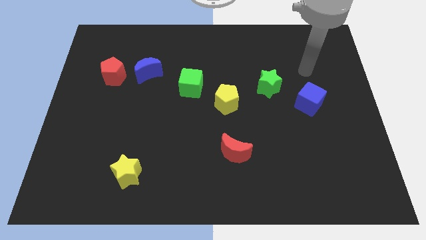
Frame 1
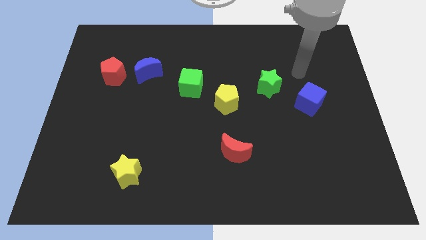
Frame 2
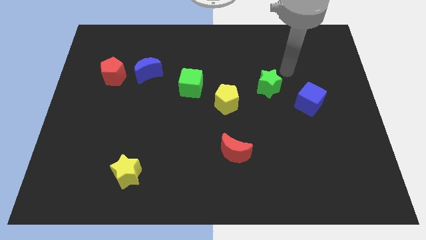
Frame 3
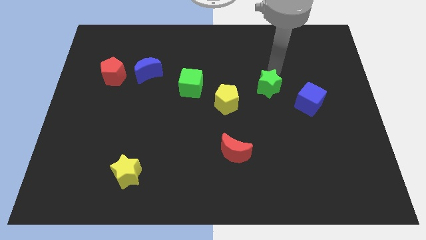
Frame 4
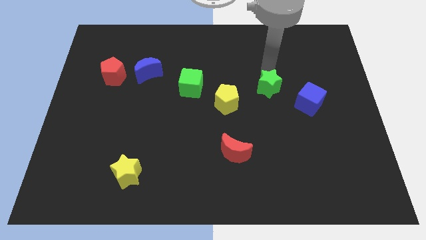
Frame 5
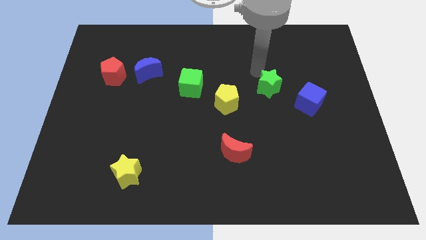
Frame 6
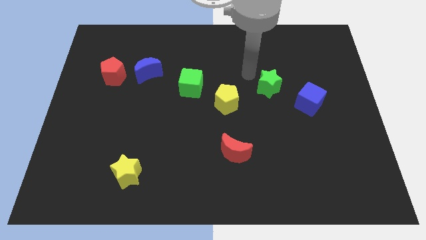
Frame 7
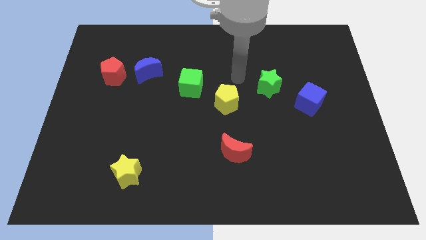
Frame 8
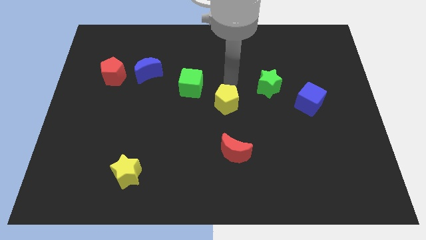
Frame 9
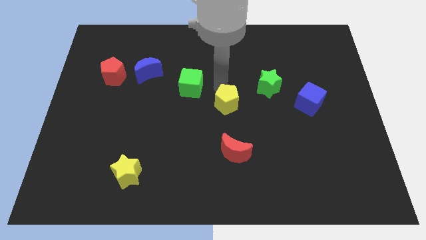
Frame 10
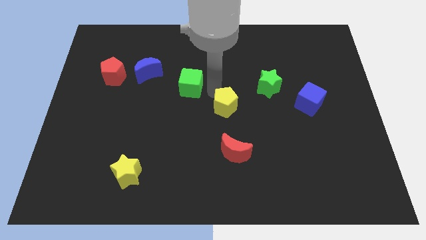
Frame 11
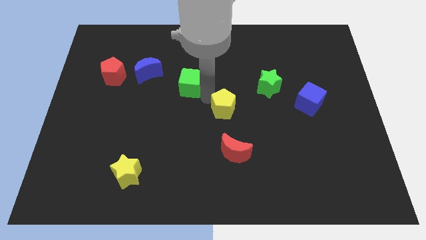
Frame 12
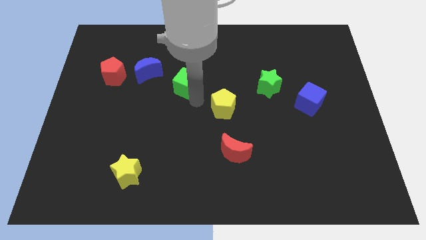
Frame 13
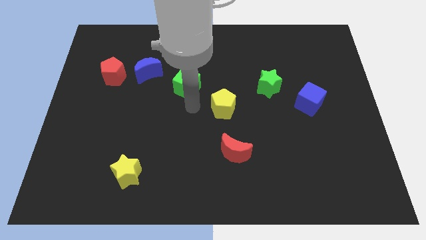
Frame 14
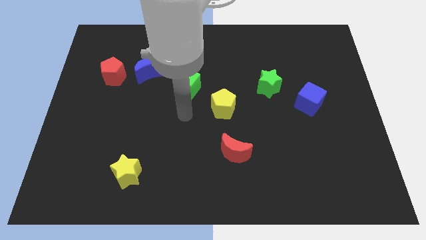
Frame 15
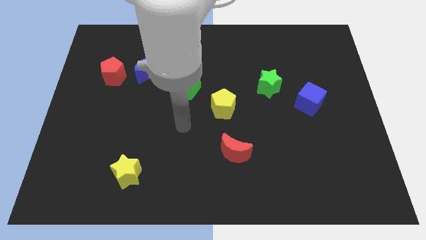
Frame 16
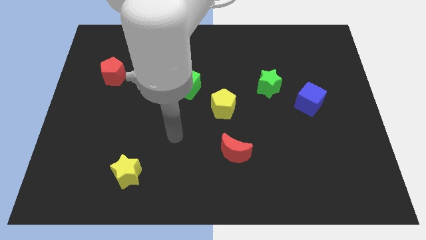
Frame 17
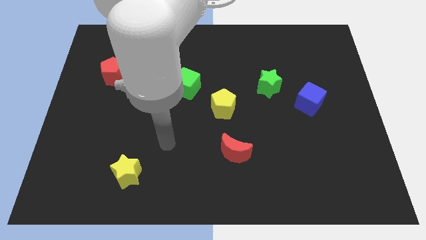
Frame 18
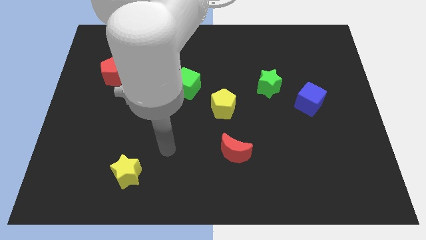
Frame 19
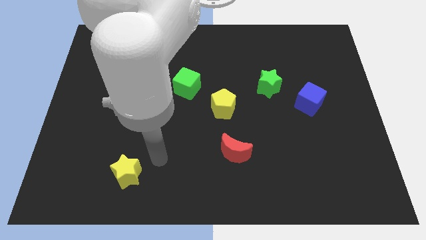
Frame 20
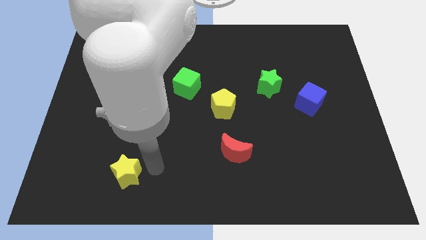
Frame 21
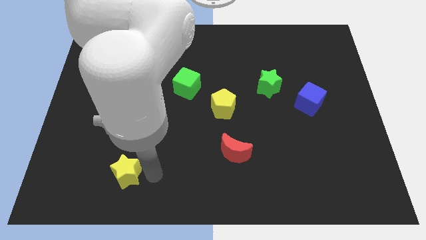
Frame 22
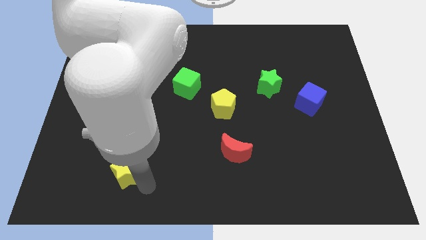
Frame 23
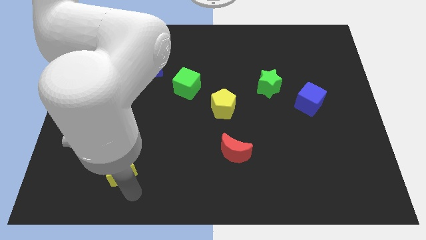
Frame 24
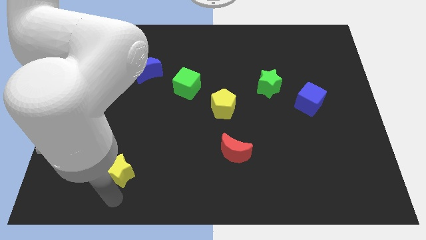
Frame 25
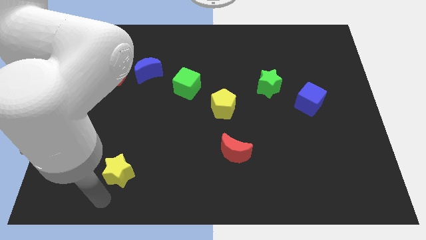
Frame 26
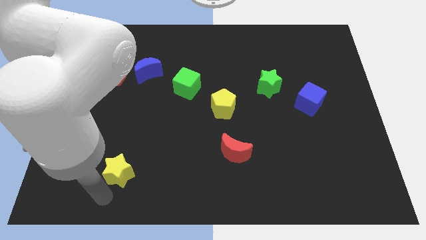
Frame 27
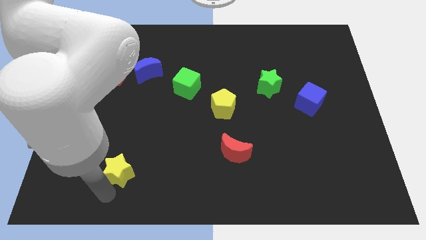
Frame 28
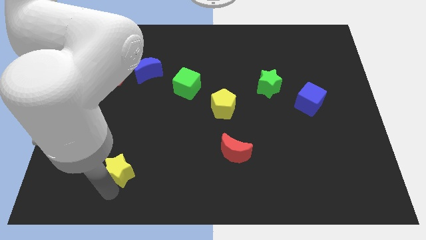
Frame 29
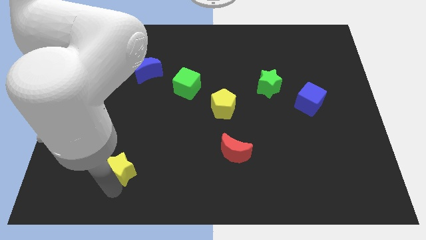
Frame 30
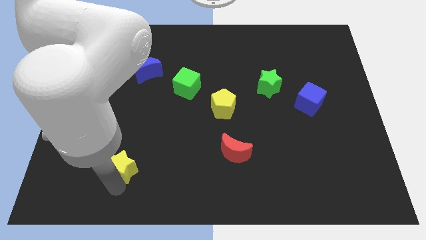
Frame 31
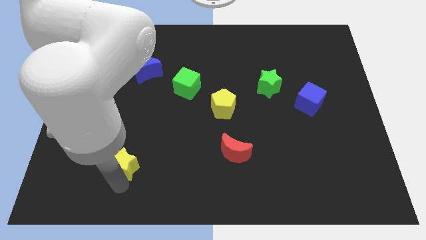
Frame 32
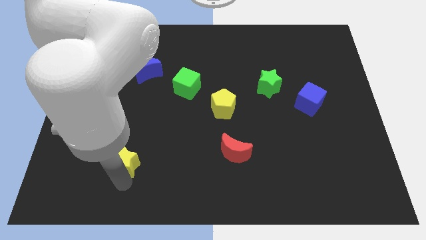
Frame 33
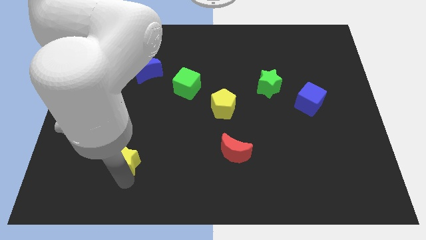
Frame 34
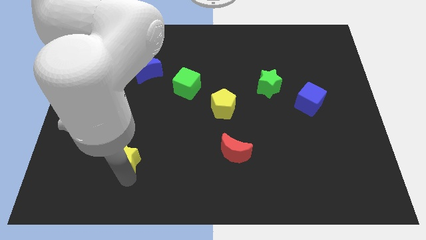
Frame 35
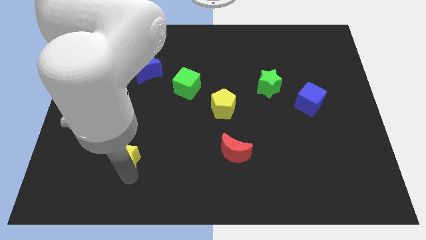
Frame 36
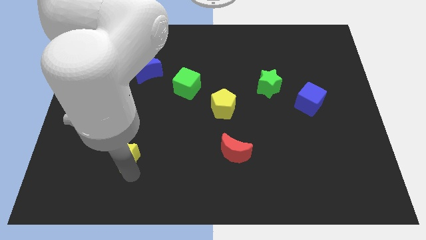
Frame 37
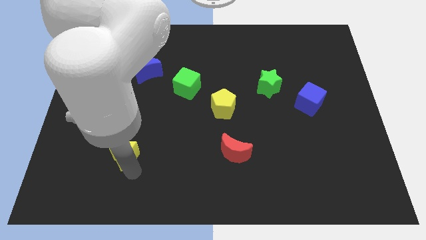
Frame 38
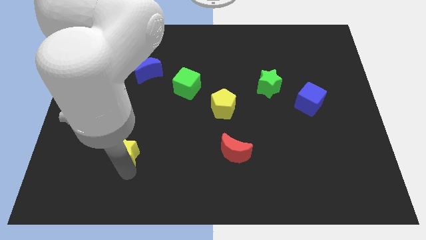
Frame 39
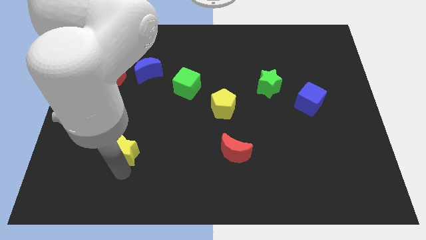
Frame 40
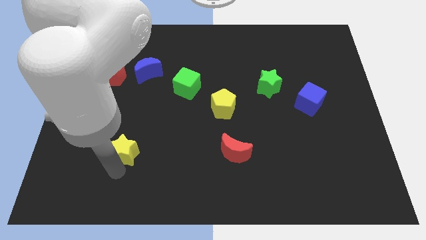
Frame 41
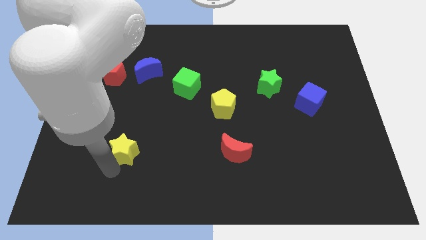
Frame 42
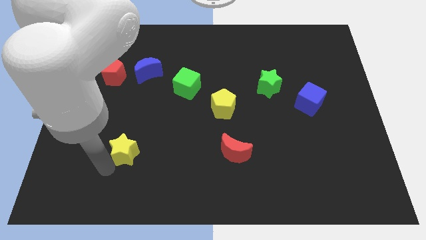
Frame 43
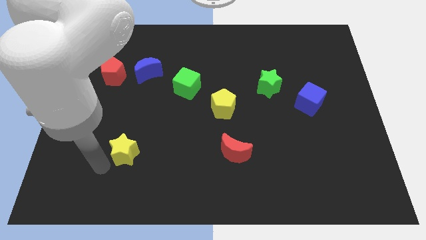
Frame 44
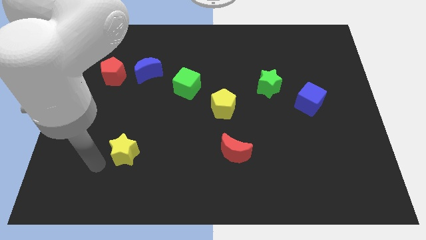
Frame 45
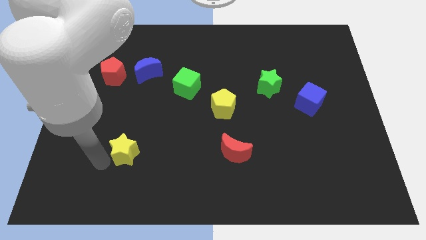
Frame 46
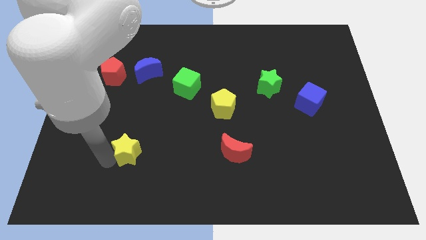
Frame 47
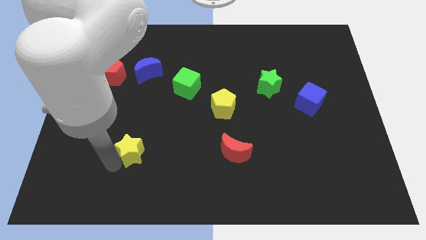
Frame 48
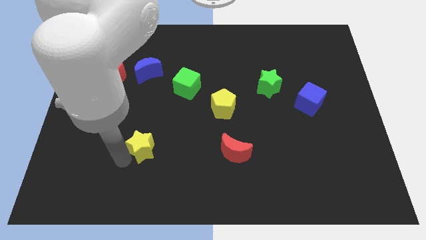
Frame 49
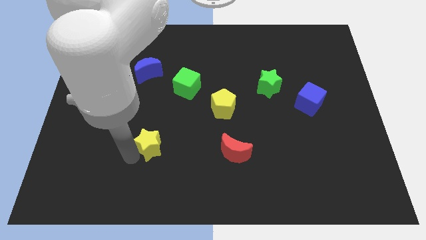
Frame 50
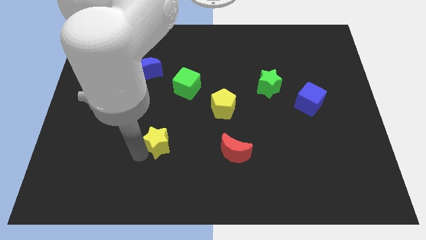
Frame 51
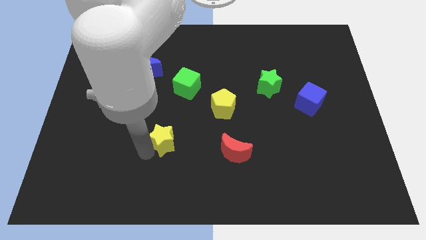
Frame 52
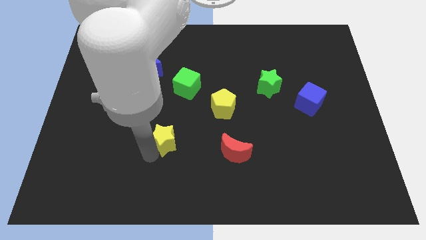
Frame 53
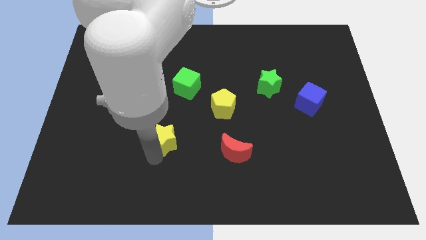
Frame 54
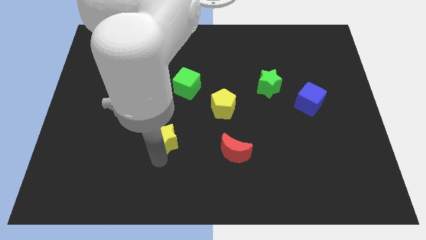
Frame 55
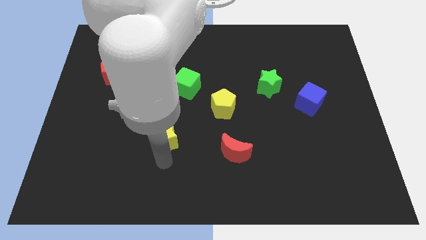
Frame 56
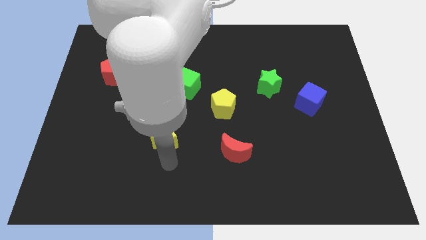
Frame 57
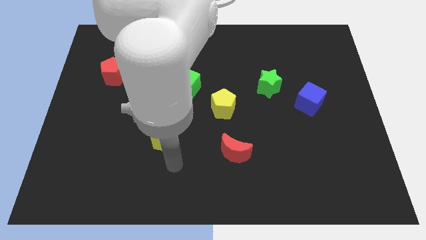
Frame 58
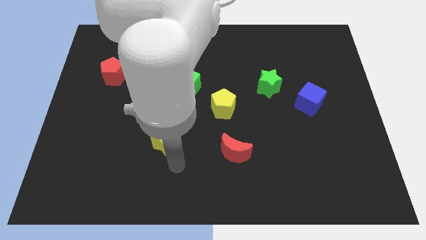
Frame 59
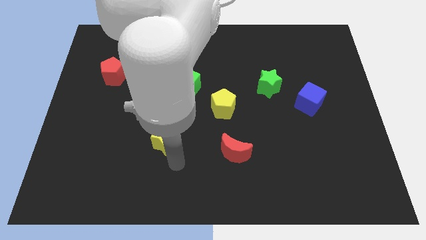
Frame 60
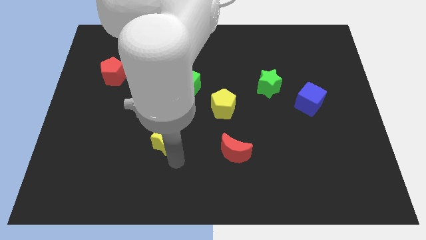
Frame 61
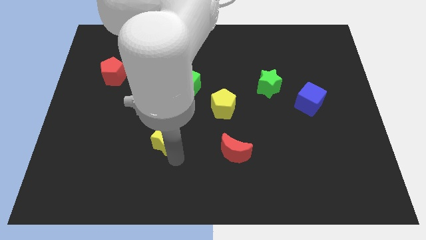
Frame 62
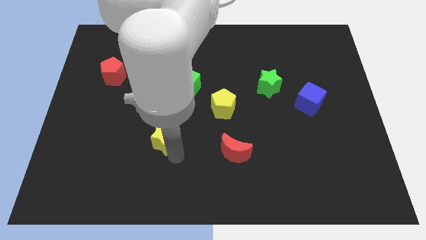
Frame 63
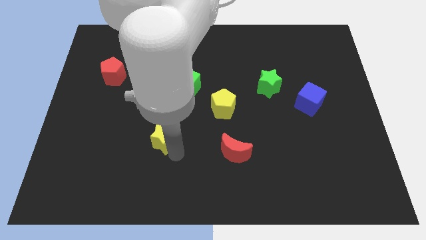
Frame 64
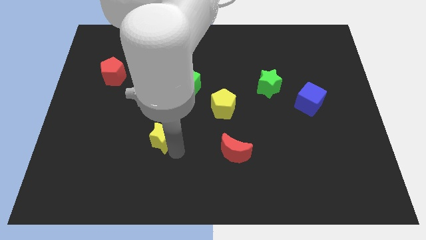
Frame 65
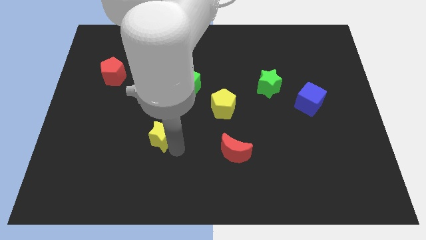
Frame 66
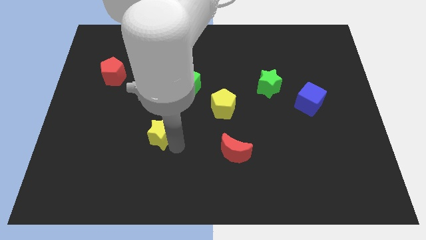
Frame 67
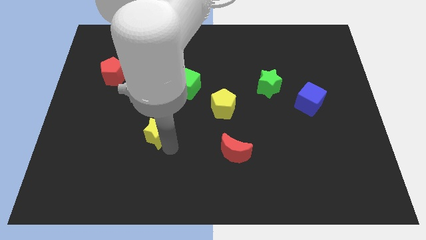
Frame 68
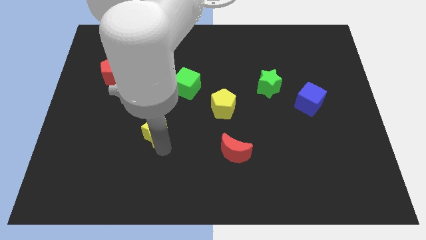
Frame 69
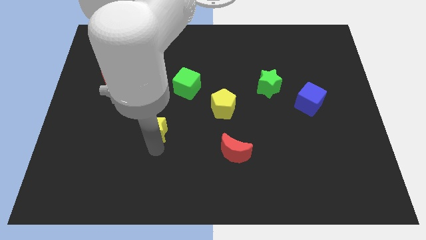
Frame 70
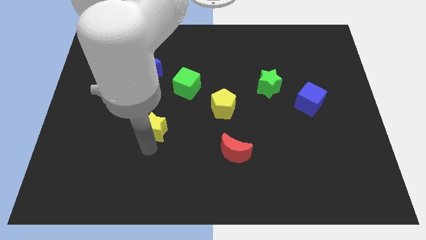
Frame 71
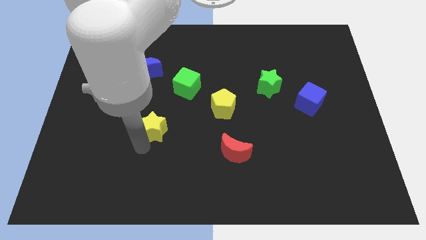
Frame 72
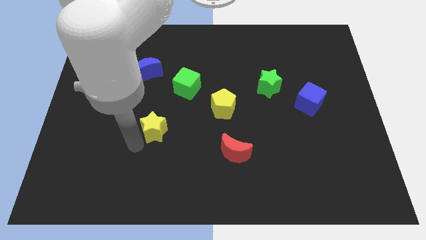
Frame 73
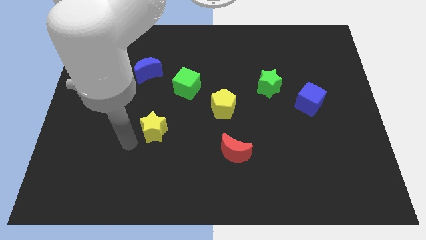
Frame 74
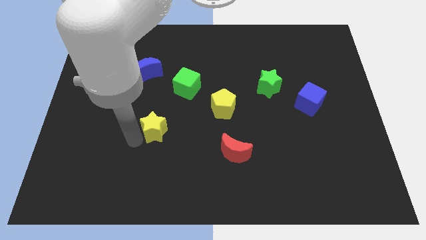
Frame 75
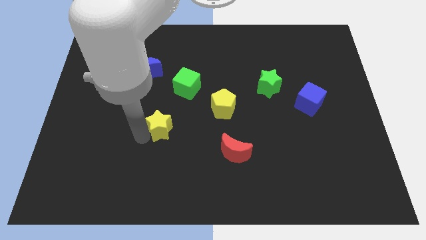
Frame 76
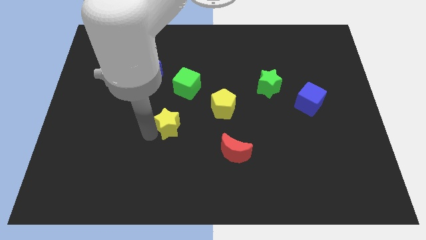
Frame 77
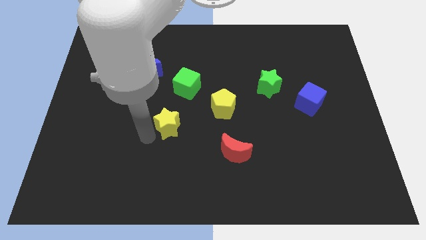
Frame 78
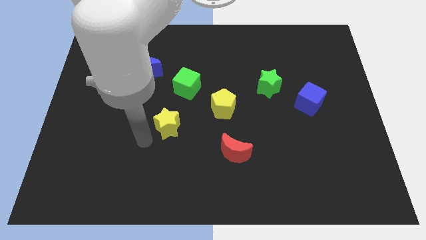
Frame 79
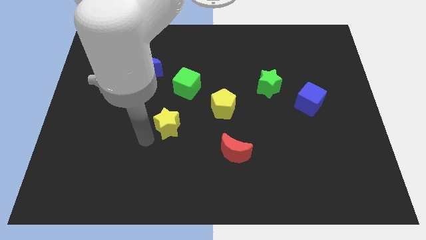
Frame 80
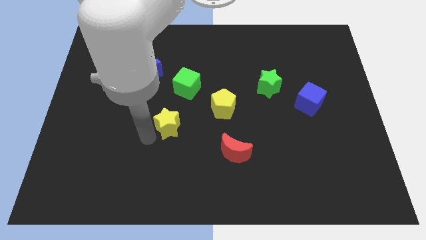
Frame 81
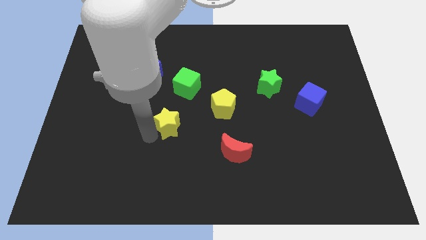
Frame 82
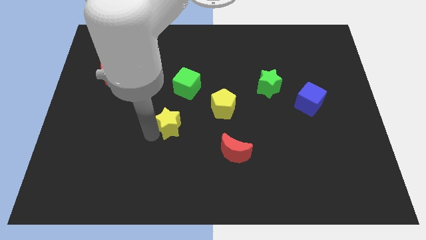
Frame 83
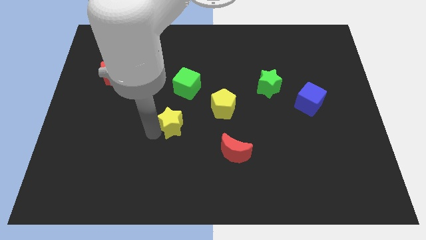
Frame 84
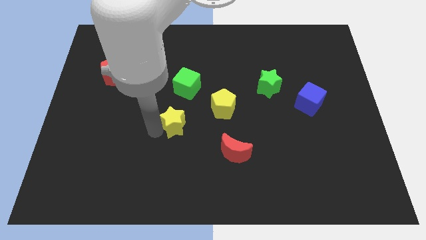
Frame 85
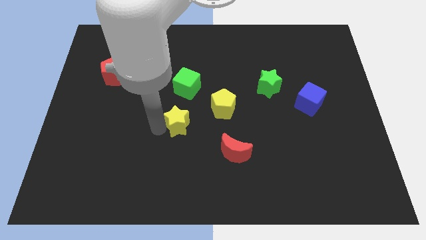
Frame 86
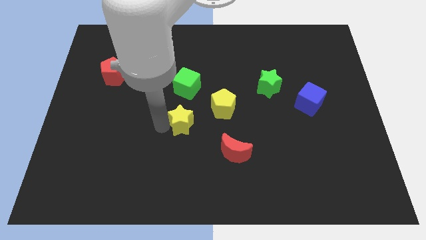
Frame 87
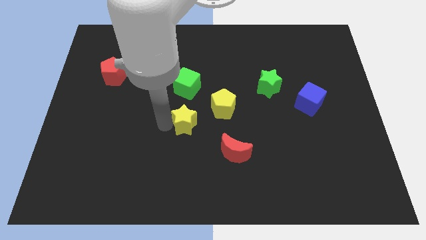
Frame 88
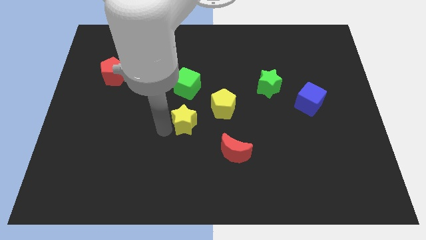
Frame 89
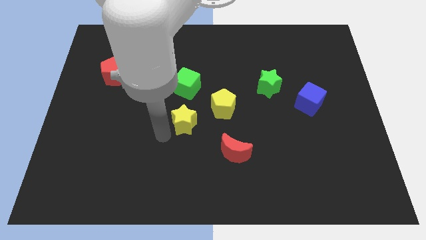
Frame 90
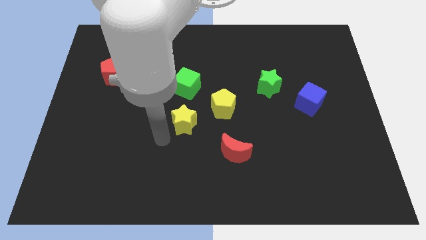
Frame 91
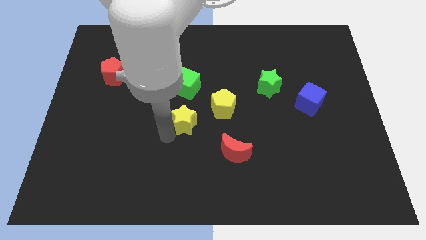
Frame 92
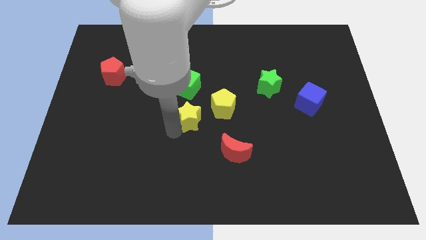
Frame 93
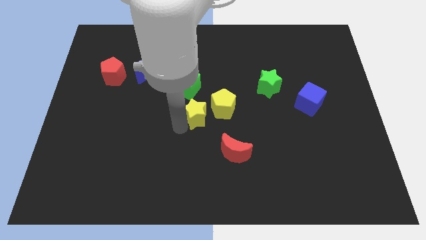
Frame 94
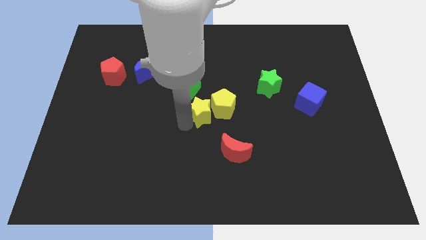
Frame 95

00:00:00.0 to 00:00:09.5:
slide the yellow star to the yellow pentagon
